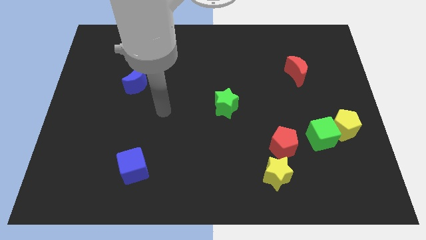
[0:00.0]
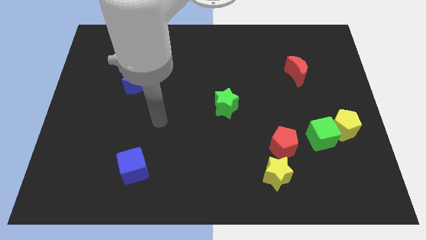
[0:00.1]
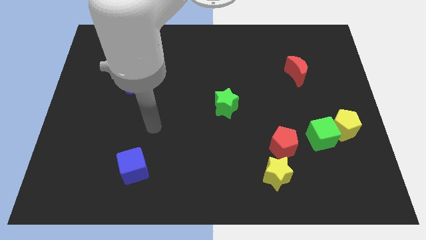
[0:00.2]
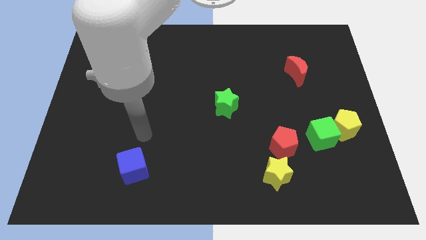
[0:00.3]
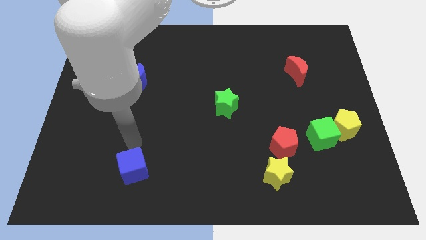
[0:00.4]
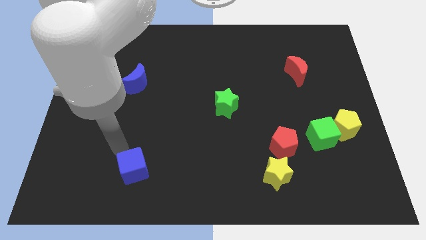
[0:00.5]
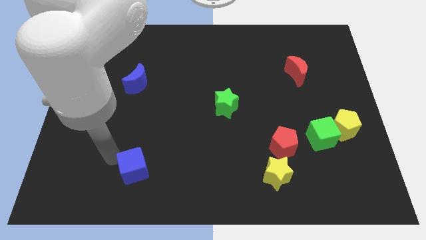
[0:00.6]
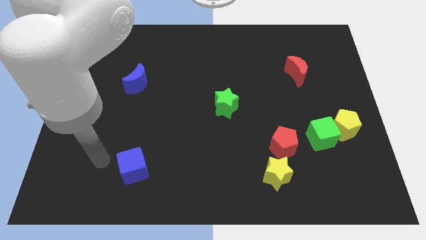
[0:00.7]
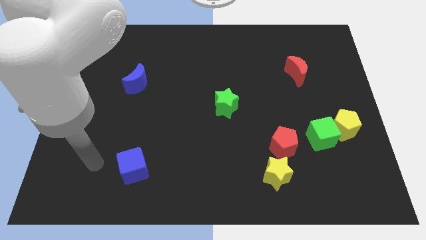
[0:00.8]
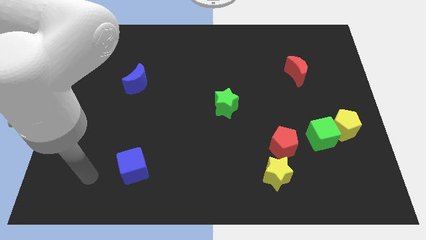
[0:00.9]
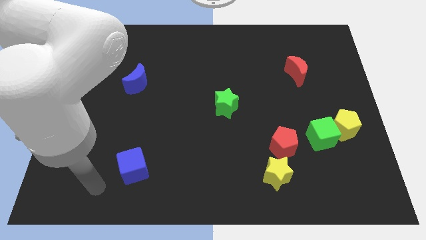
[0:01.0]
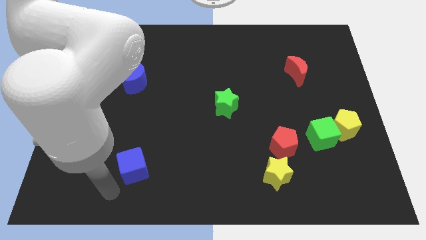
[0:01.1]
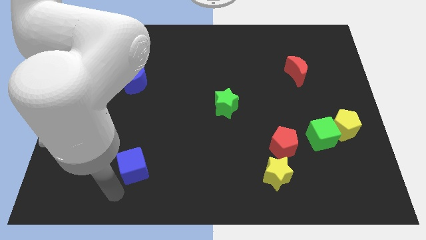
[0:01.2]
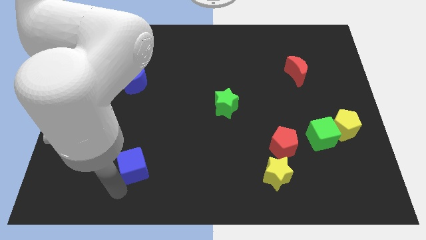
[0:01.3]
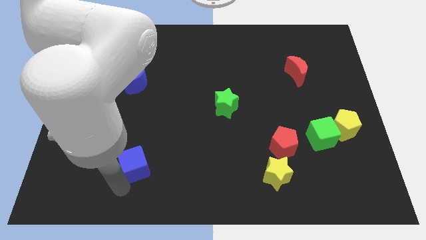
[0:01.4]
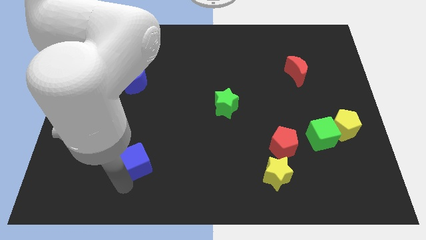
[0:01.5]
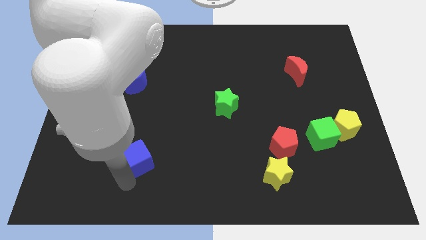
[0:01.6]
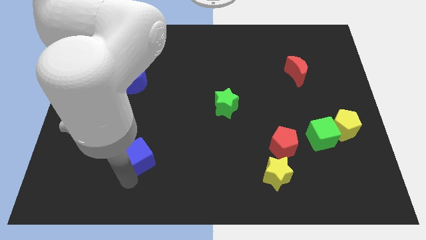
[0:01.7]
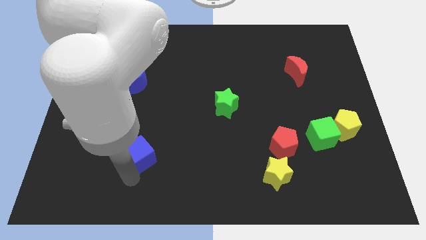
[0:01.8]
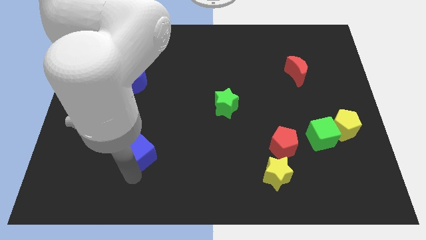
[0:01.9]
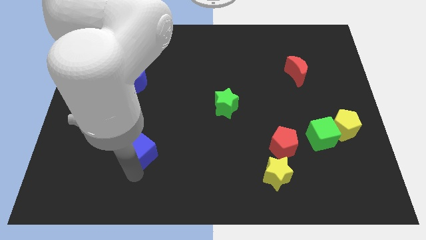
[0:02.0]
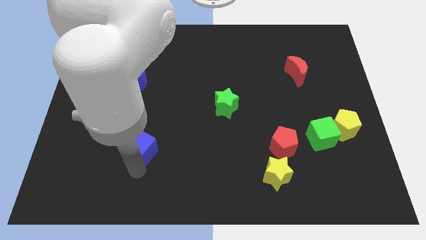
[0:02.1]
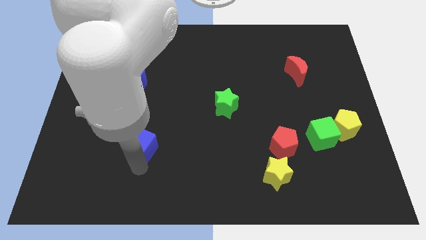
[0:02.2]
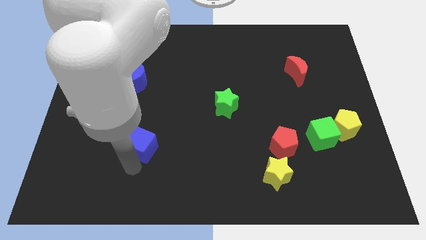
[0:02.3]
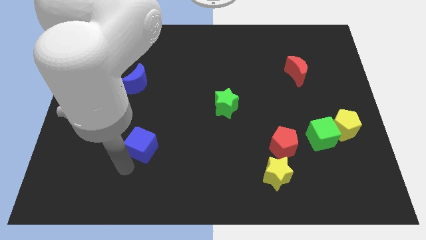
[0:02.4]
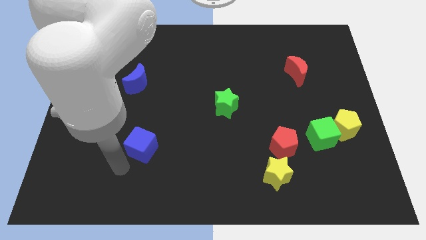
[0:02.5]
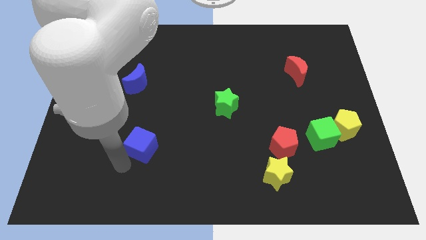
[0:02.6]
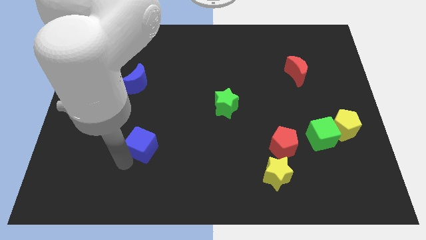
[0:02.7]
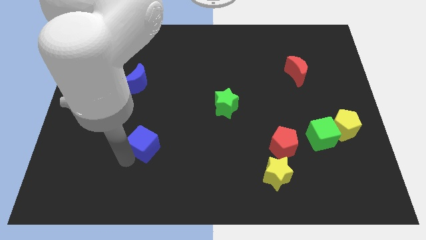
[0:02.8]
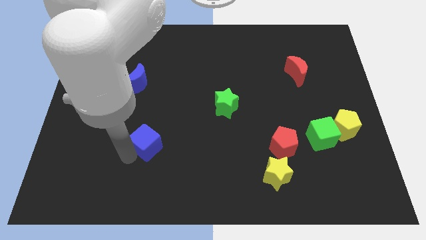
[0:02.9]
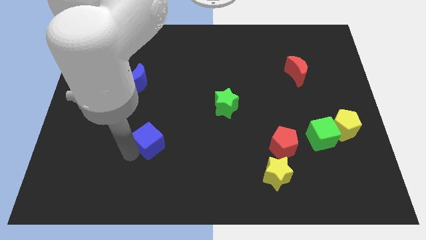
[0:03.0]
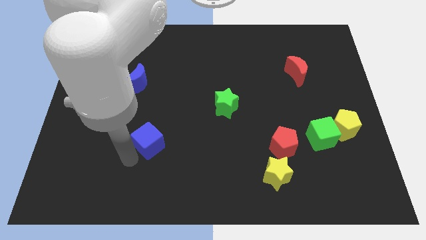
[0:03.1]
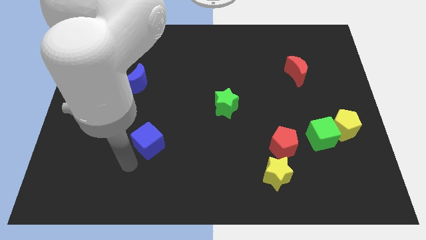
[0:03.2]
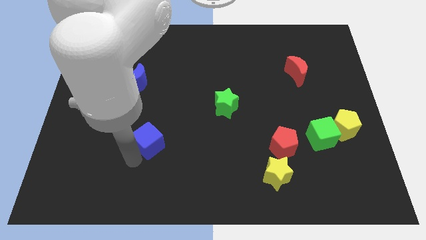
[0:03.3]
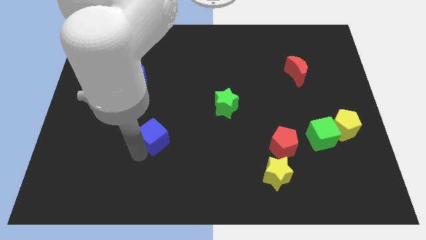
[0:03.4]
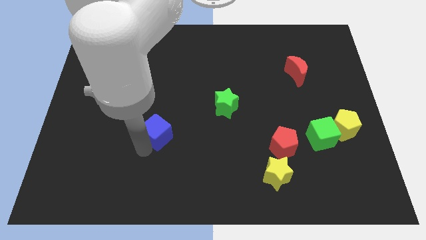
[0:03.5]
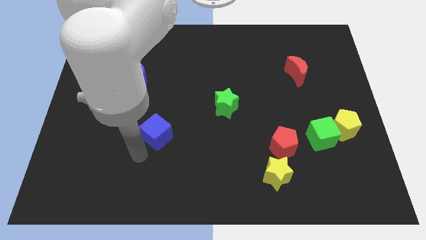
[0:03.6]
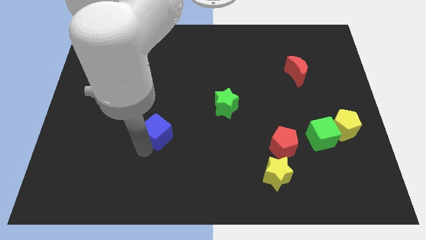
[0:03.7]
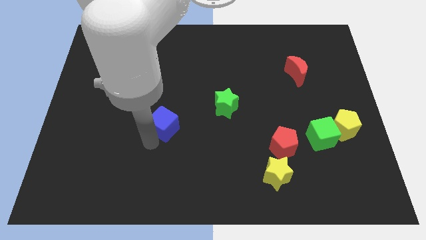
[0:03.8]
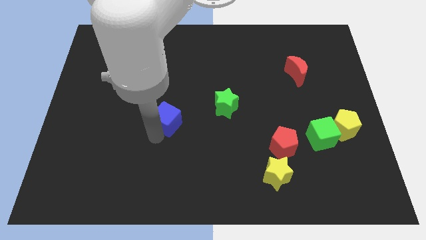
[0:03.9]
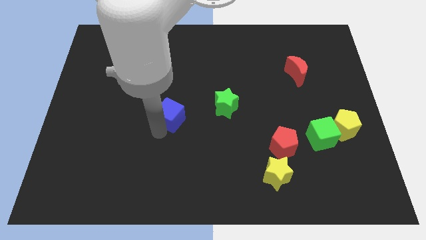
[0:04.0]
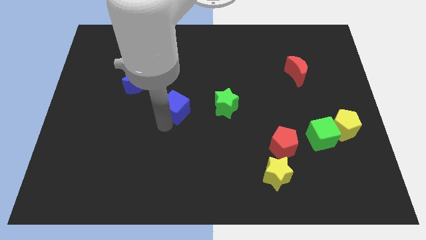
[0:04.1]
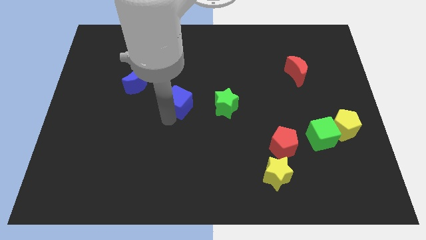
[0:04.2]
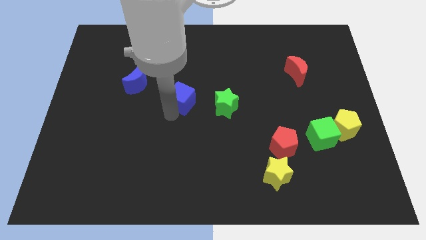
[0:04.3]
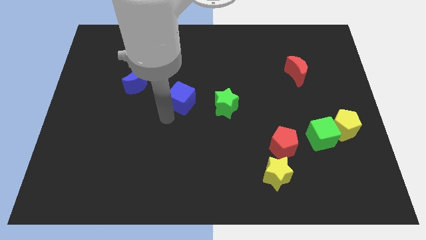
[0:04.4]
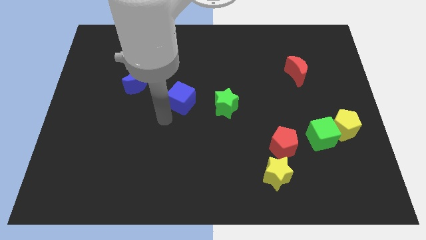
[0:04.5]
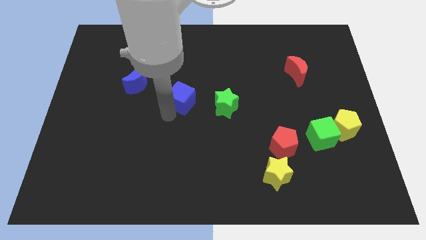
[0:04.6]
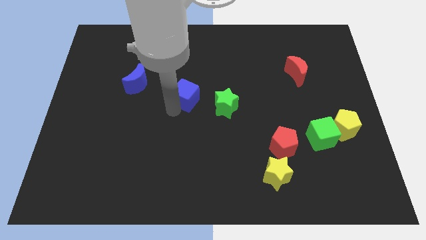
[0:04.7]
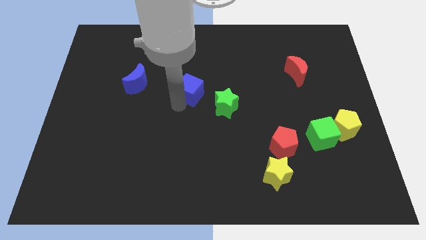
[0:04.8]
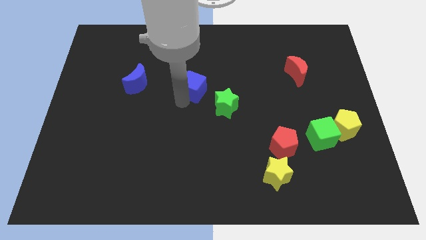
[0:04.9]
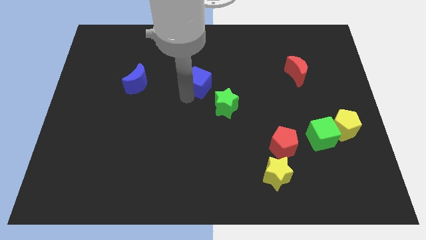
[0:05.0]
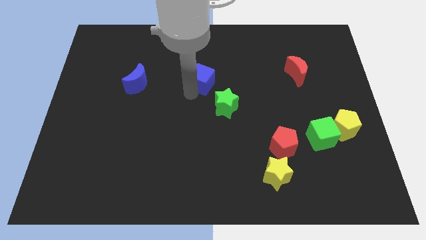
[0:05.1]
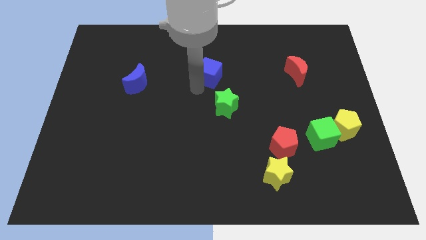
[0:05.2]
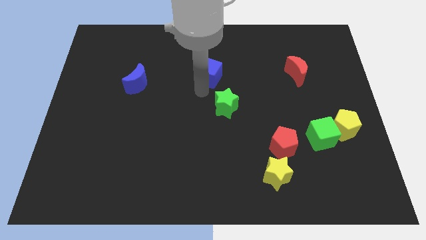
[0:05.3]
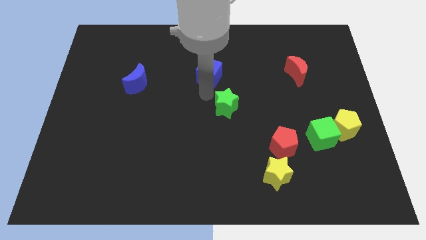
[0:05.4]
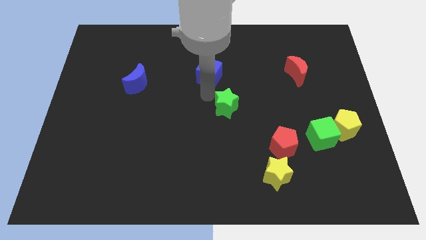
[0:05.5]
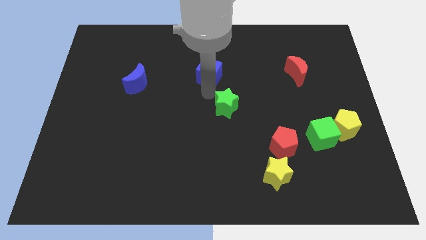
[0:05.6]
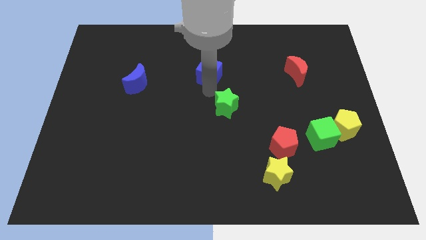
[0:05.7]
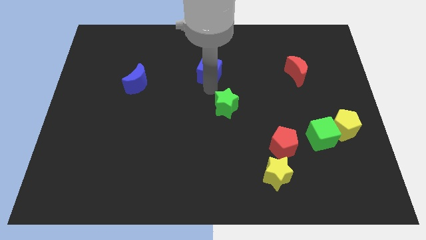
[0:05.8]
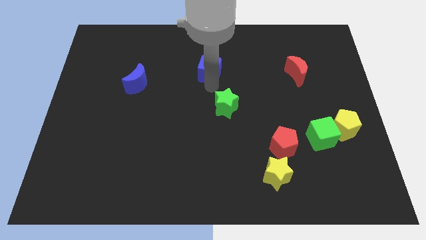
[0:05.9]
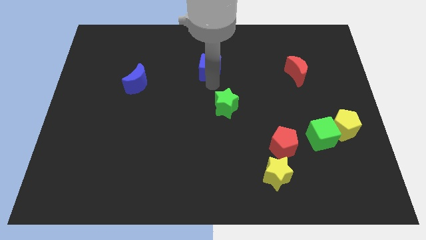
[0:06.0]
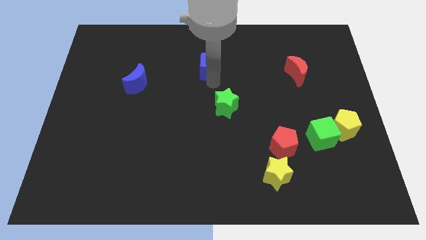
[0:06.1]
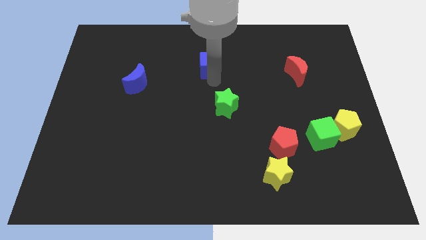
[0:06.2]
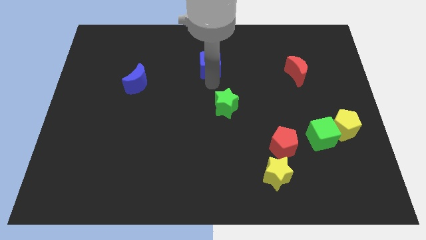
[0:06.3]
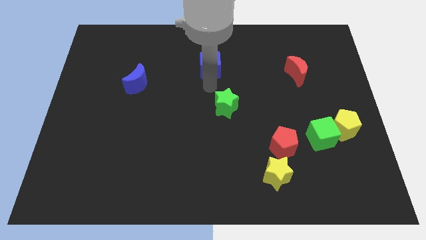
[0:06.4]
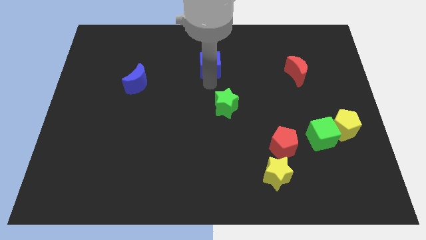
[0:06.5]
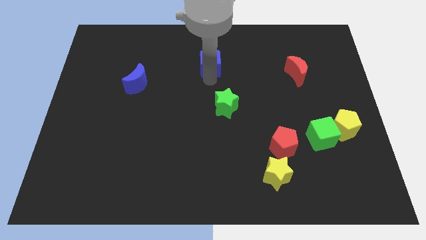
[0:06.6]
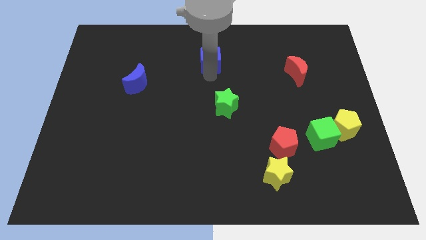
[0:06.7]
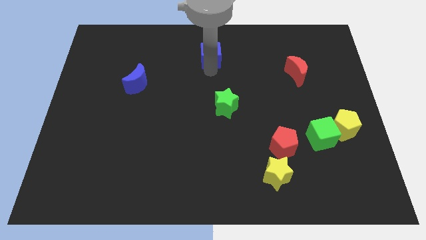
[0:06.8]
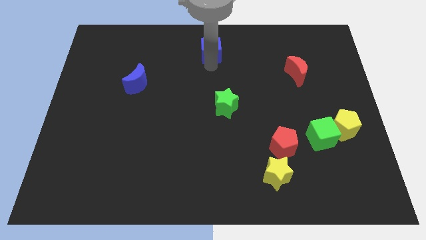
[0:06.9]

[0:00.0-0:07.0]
slide the blue cube to the top

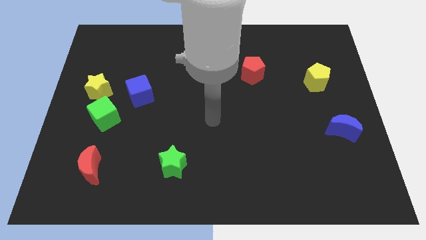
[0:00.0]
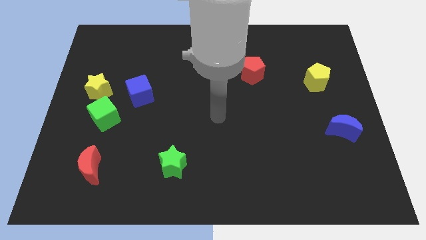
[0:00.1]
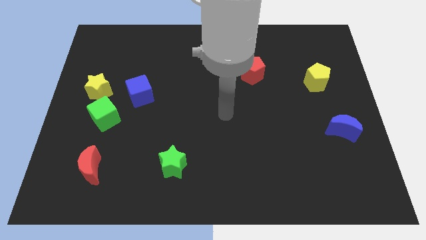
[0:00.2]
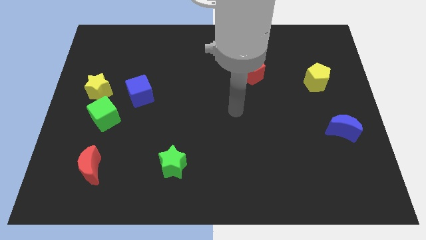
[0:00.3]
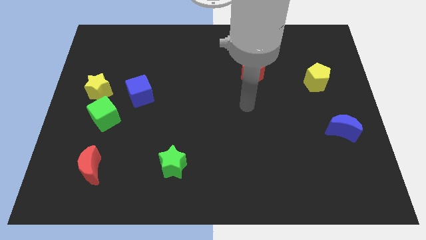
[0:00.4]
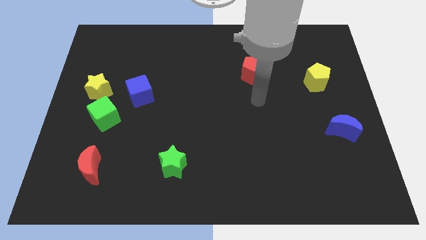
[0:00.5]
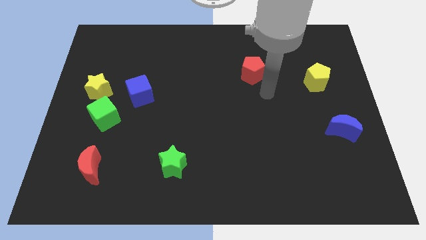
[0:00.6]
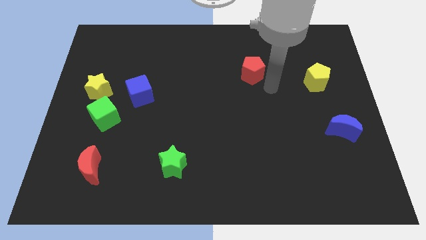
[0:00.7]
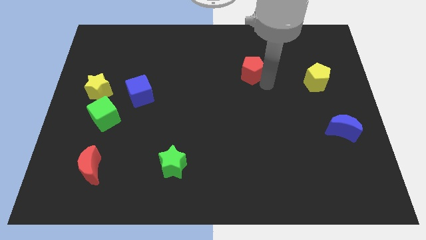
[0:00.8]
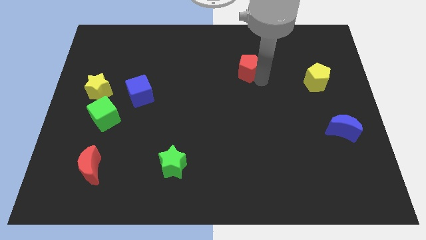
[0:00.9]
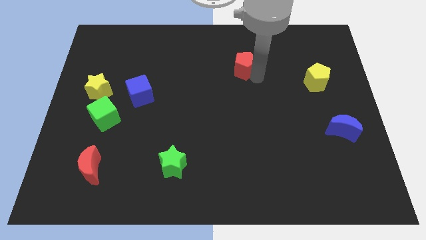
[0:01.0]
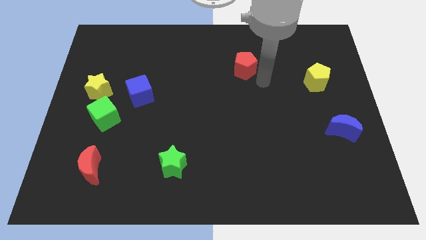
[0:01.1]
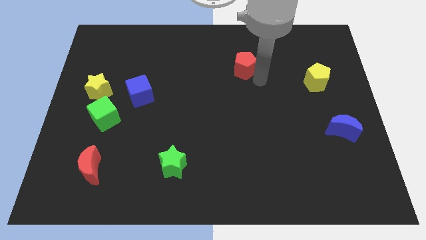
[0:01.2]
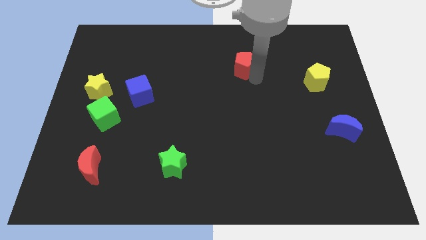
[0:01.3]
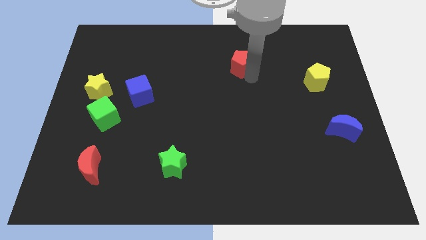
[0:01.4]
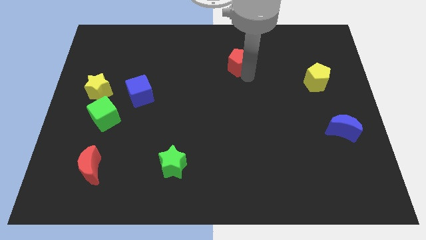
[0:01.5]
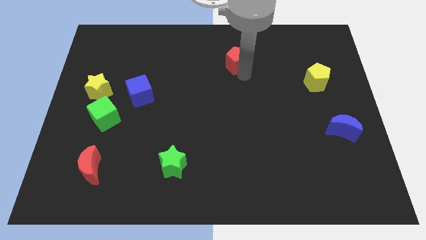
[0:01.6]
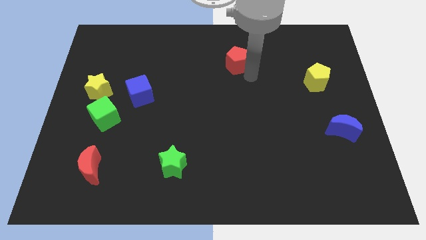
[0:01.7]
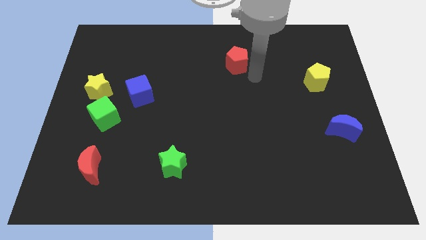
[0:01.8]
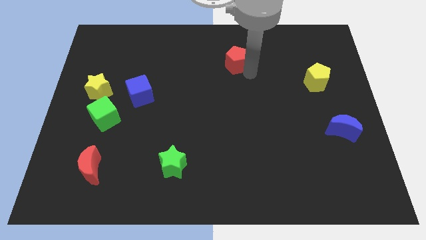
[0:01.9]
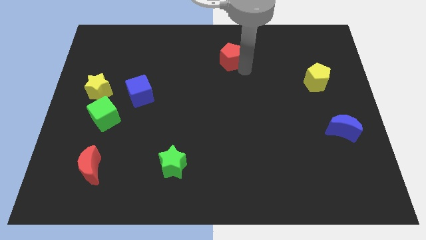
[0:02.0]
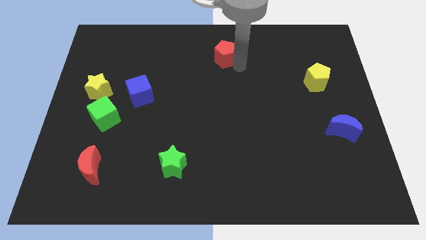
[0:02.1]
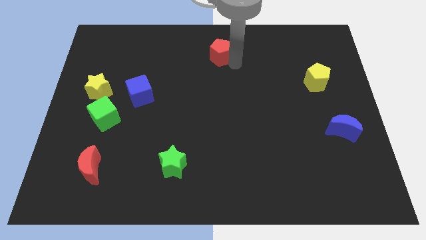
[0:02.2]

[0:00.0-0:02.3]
slide the red pentagon to the top
